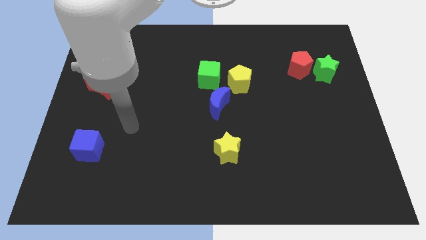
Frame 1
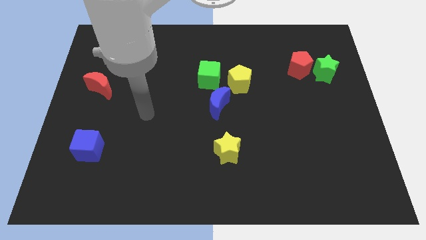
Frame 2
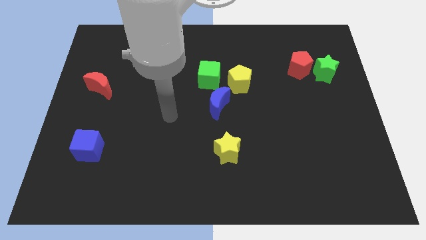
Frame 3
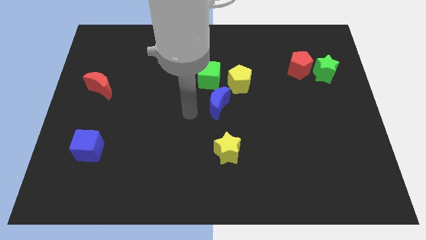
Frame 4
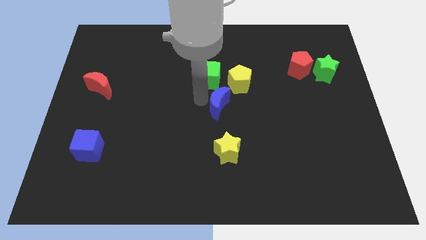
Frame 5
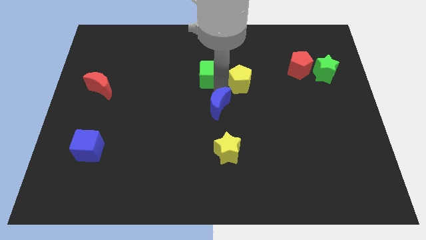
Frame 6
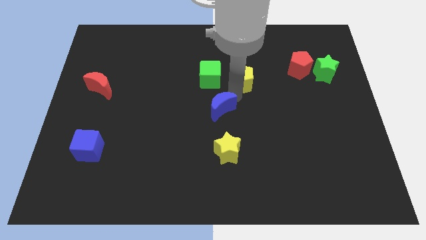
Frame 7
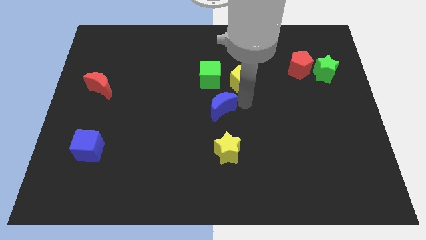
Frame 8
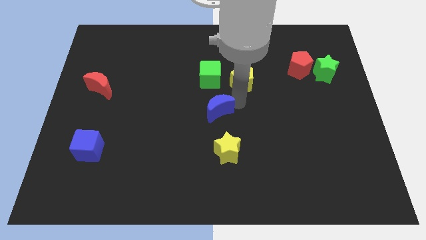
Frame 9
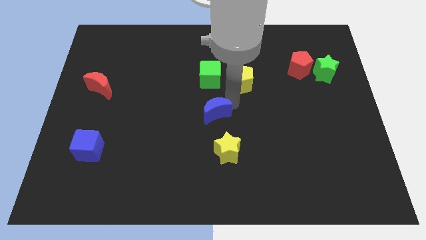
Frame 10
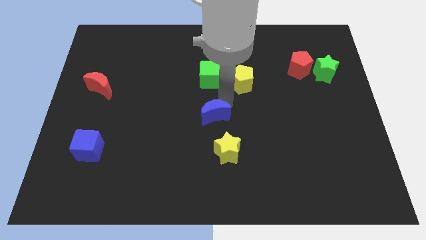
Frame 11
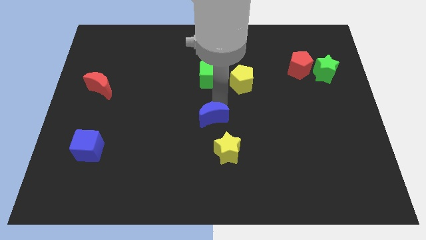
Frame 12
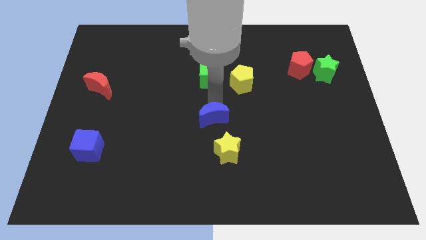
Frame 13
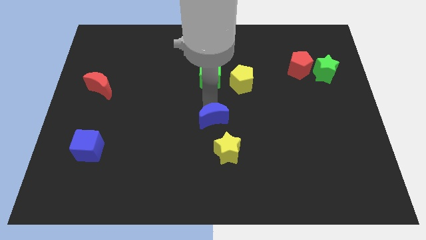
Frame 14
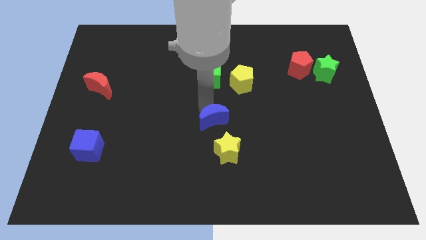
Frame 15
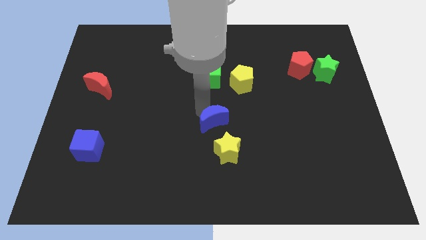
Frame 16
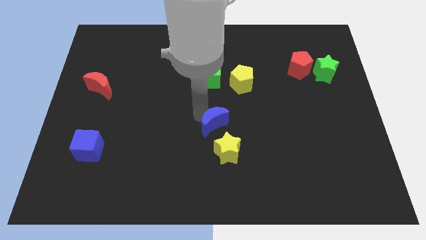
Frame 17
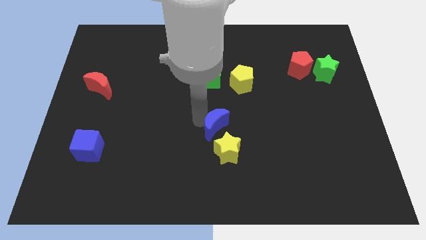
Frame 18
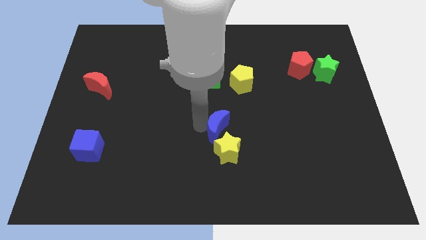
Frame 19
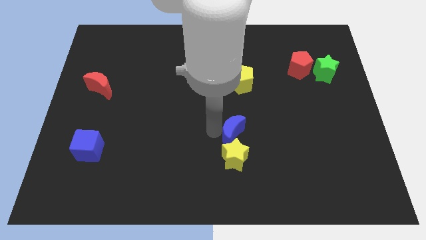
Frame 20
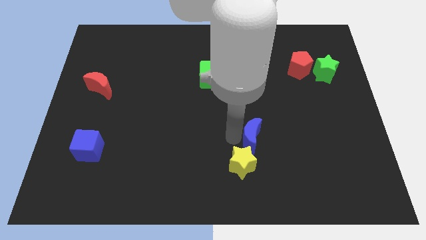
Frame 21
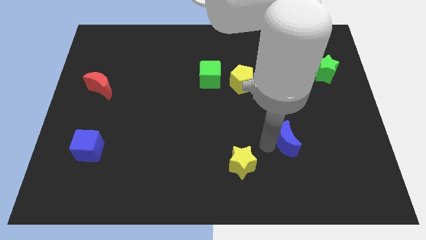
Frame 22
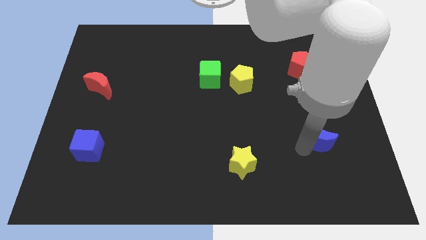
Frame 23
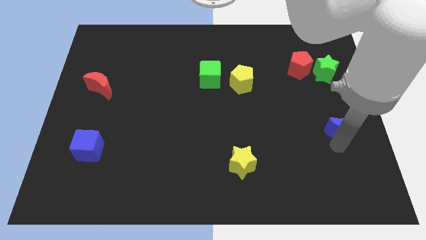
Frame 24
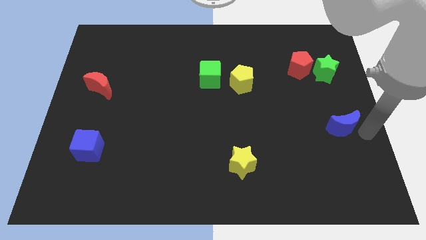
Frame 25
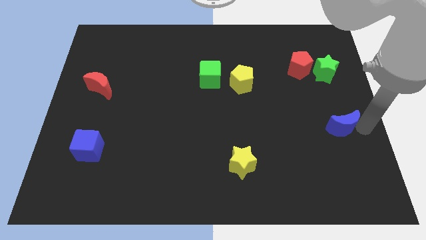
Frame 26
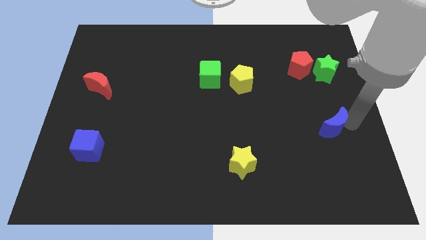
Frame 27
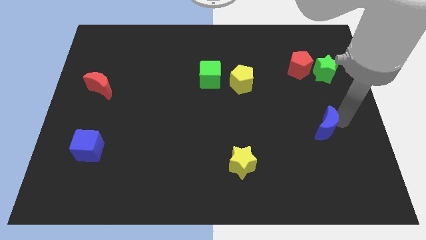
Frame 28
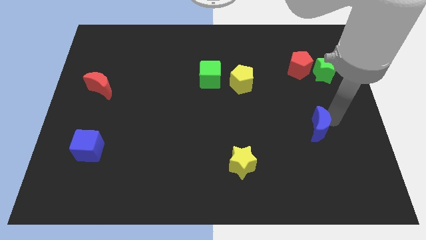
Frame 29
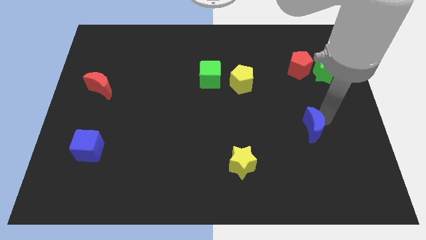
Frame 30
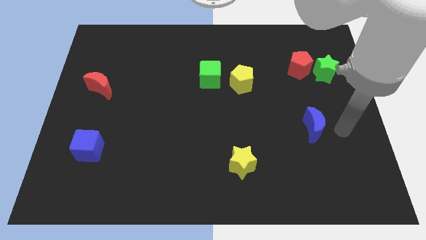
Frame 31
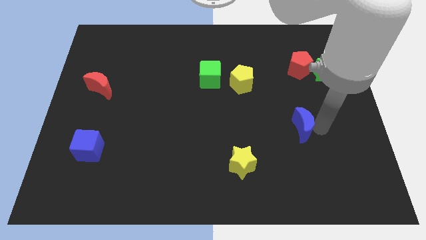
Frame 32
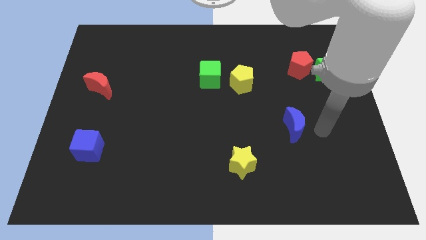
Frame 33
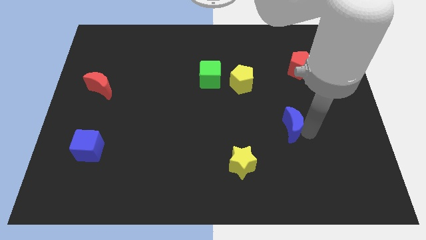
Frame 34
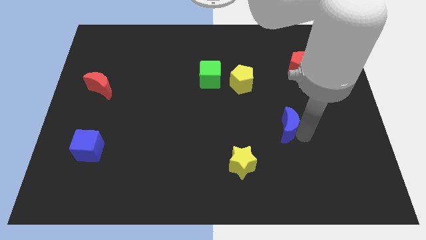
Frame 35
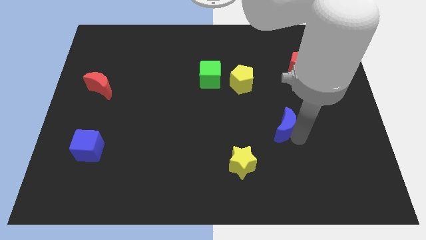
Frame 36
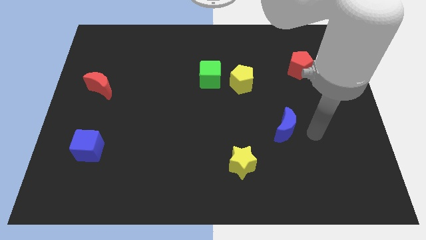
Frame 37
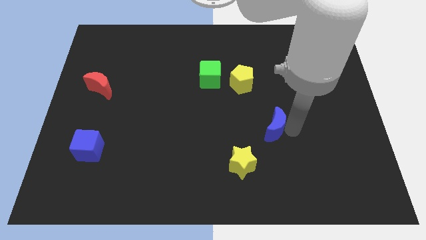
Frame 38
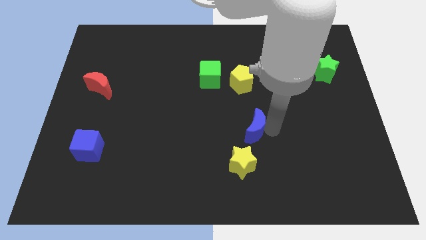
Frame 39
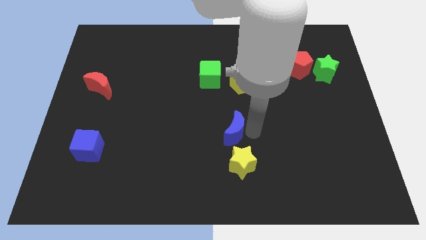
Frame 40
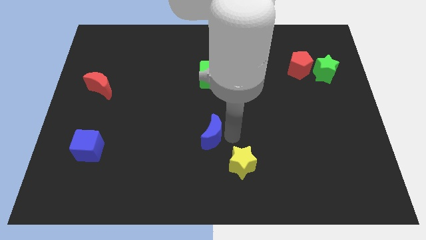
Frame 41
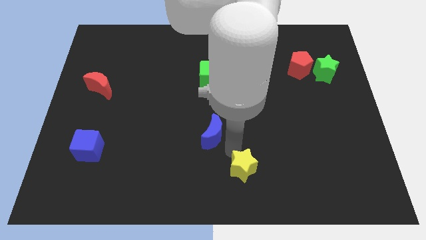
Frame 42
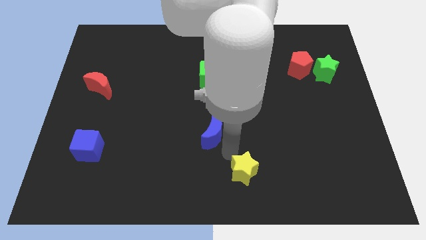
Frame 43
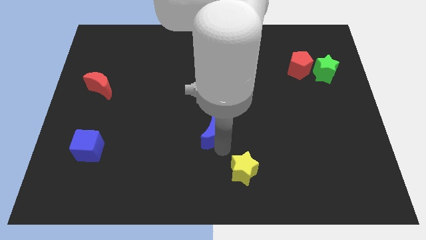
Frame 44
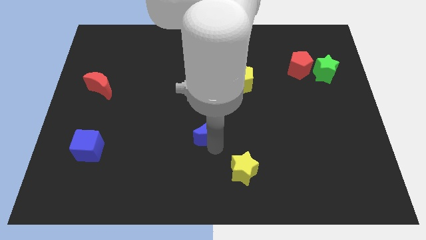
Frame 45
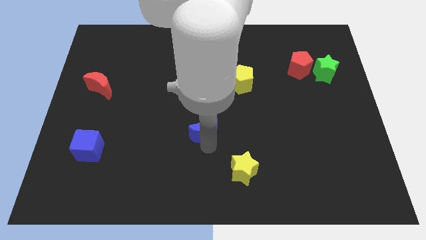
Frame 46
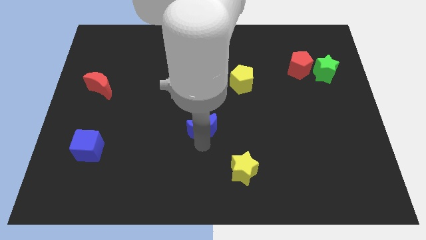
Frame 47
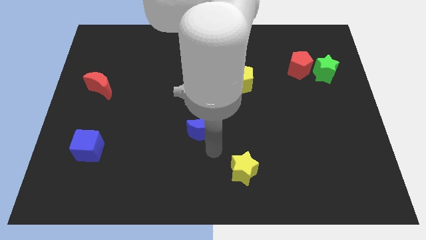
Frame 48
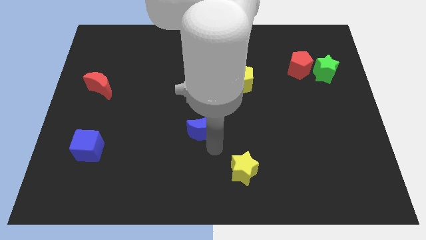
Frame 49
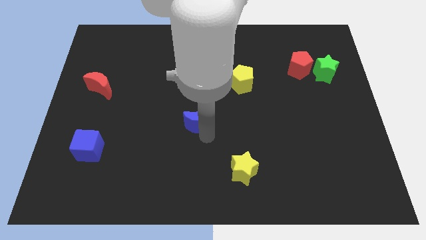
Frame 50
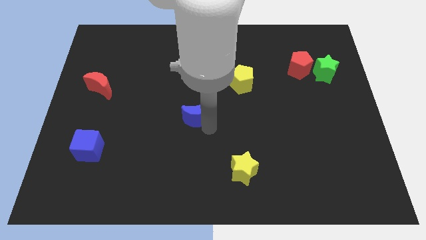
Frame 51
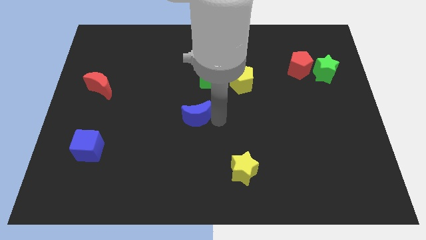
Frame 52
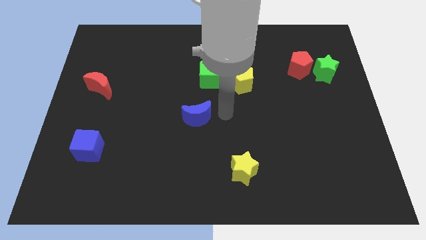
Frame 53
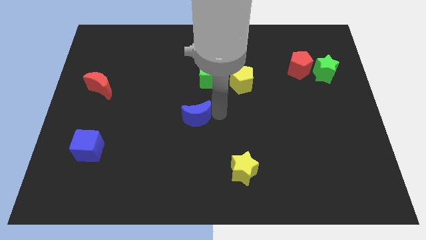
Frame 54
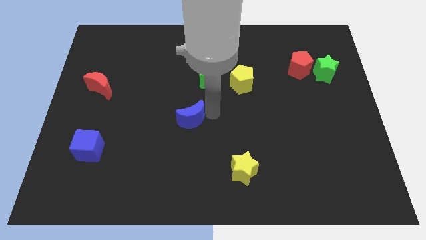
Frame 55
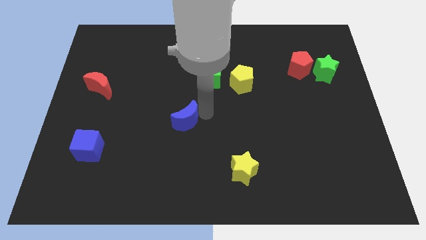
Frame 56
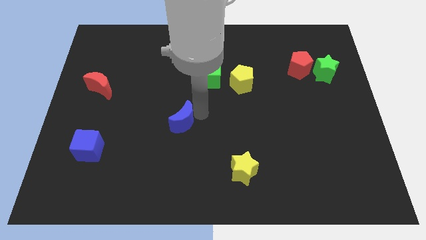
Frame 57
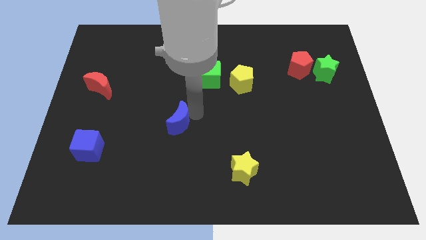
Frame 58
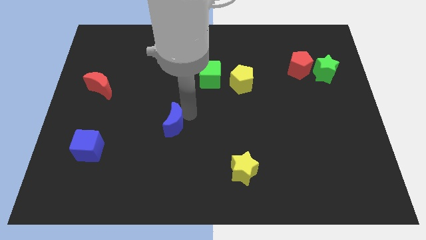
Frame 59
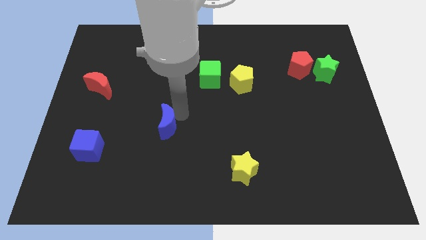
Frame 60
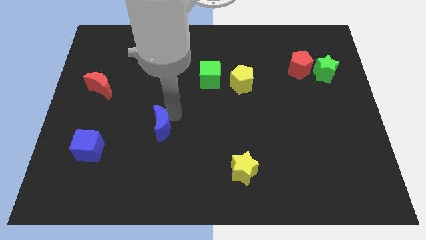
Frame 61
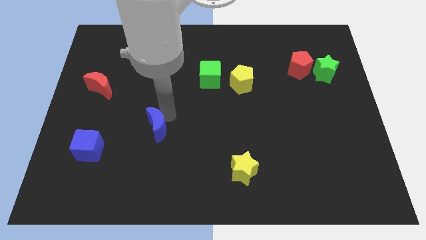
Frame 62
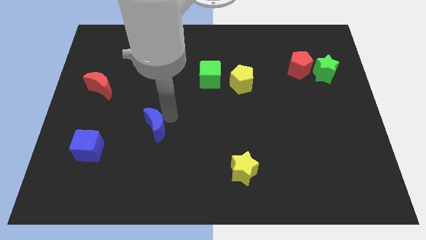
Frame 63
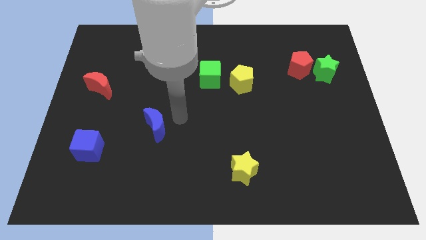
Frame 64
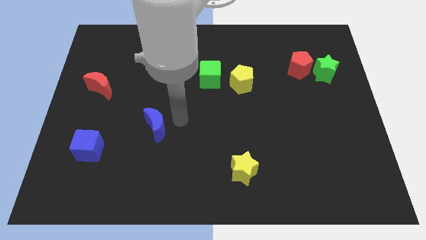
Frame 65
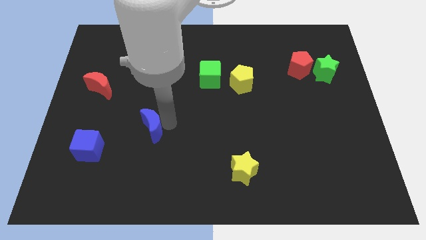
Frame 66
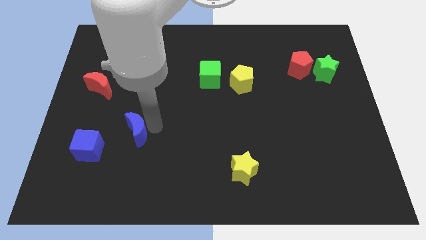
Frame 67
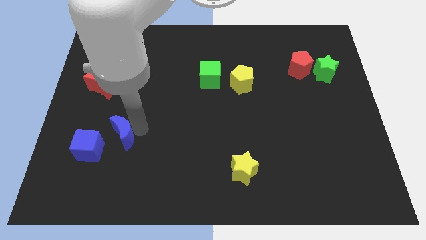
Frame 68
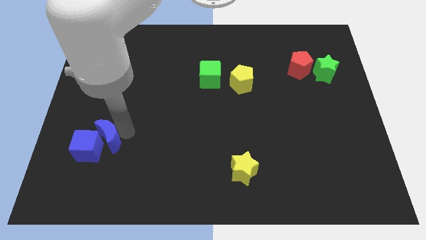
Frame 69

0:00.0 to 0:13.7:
move the blue moon towards the blue cube
